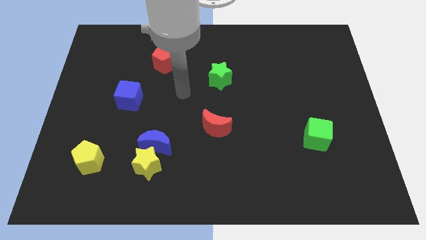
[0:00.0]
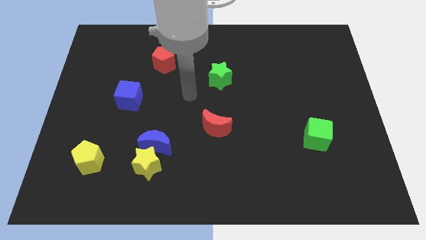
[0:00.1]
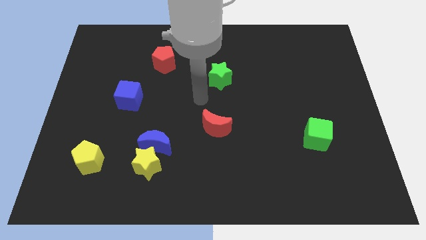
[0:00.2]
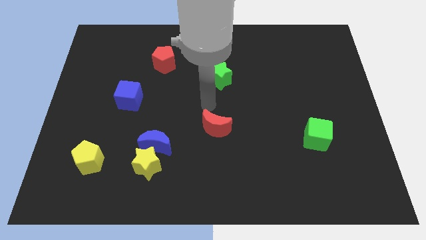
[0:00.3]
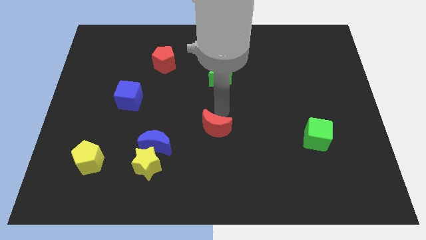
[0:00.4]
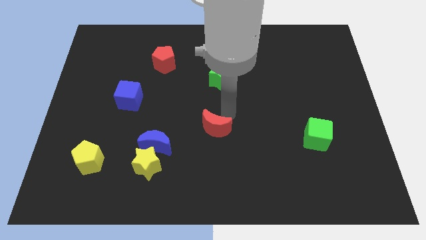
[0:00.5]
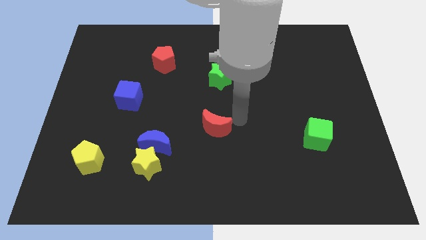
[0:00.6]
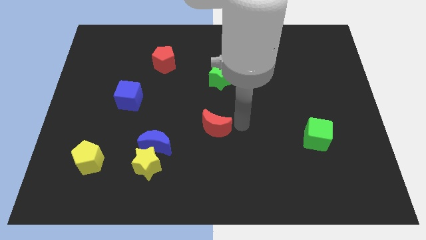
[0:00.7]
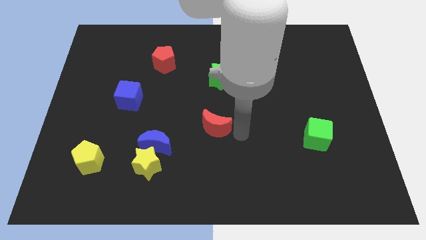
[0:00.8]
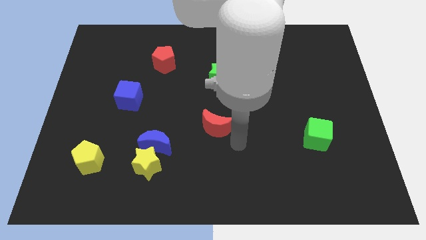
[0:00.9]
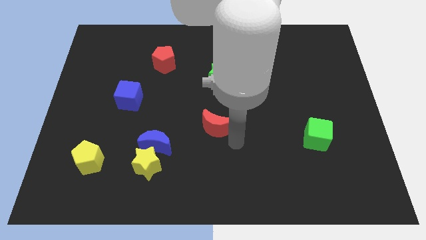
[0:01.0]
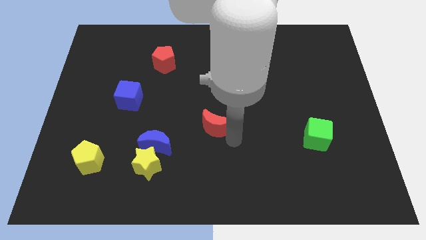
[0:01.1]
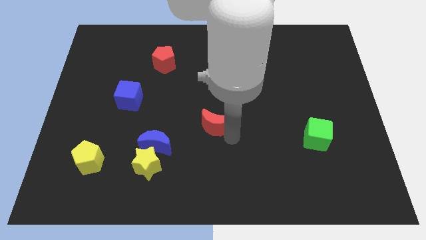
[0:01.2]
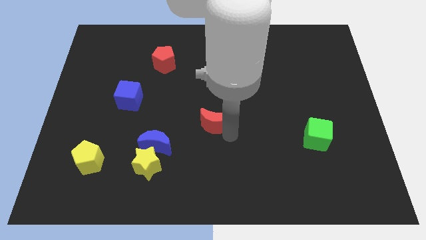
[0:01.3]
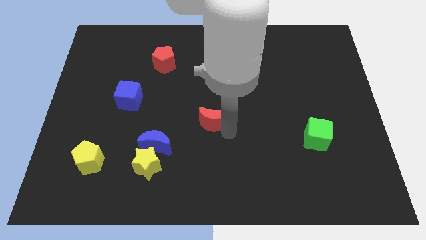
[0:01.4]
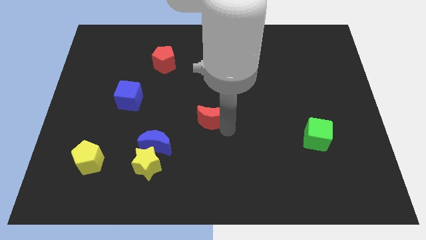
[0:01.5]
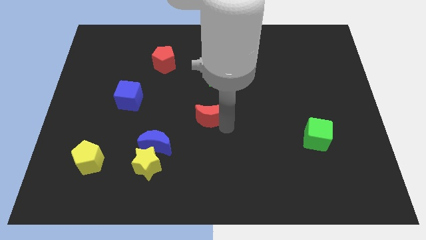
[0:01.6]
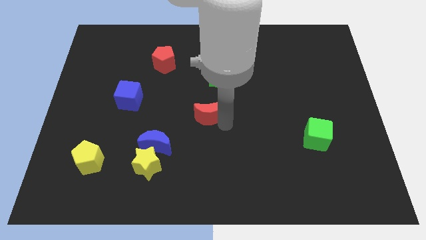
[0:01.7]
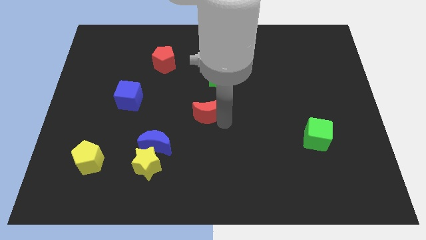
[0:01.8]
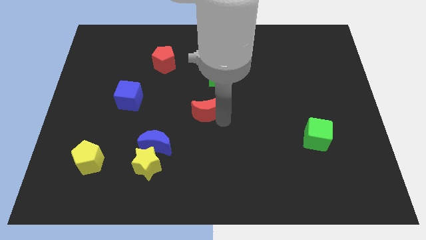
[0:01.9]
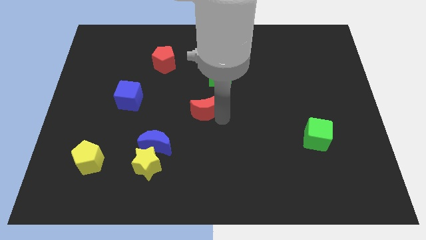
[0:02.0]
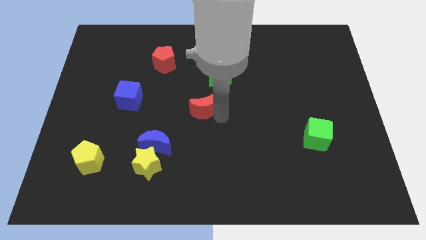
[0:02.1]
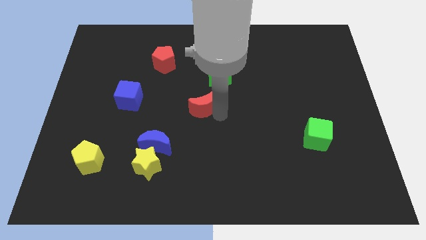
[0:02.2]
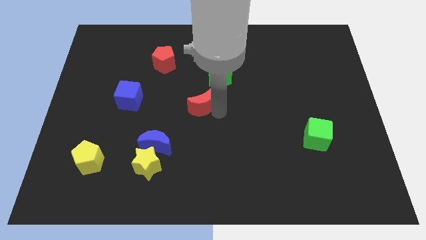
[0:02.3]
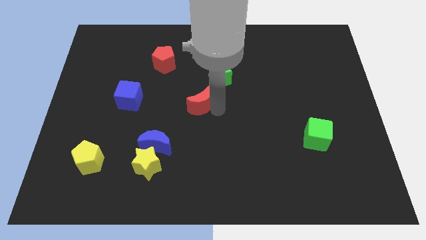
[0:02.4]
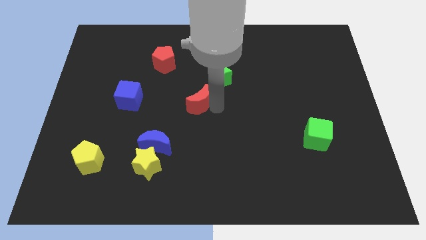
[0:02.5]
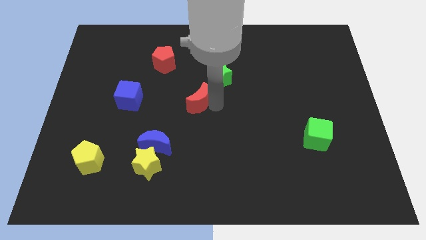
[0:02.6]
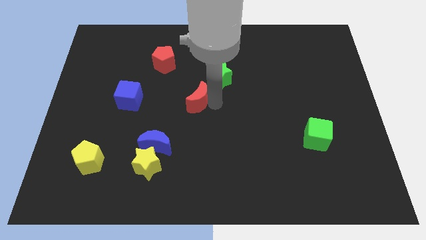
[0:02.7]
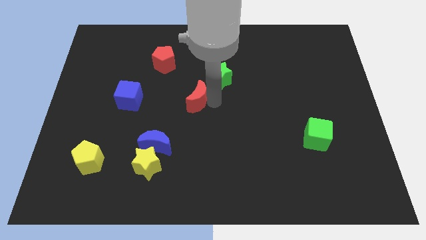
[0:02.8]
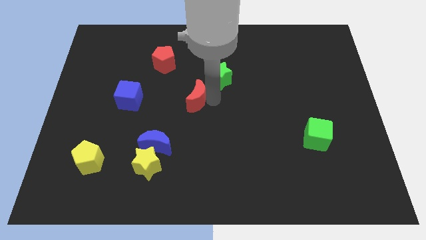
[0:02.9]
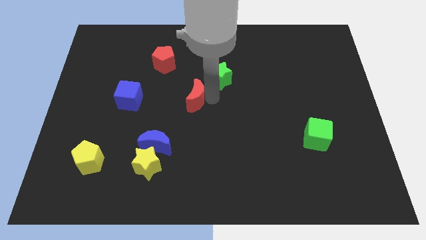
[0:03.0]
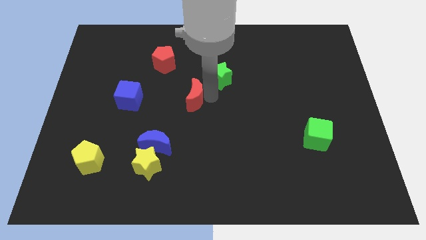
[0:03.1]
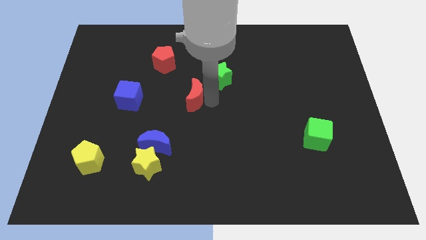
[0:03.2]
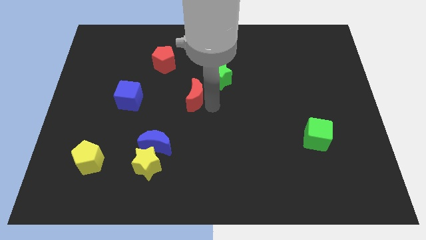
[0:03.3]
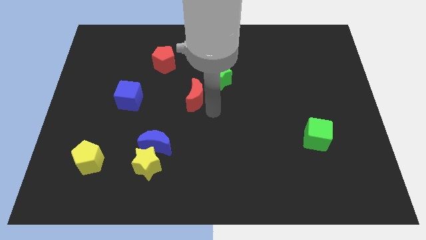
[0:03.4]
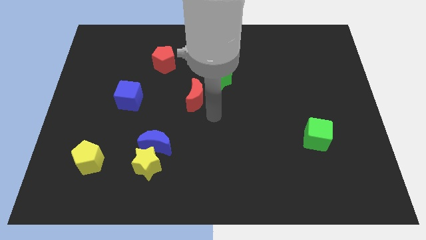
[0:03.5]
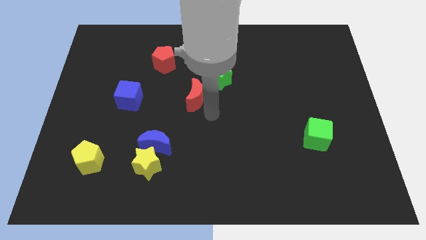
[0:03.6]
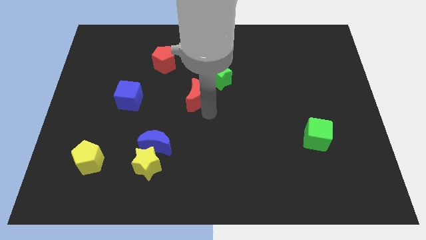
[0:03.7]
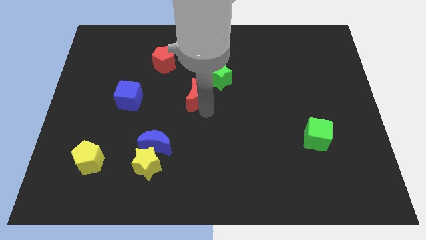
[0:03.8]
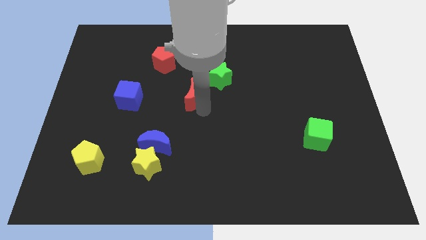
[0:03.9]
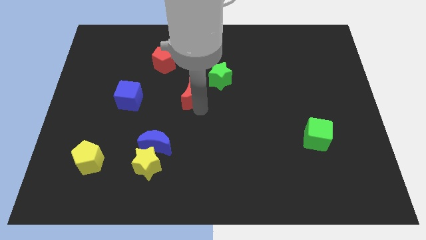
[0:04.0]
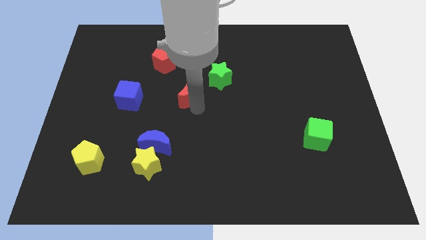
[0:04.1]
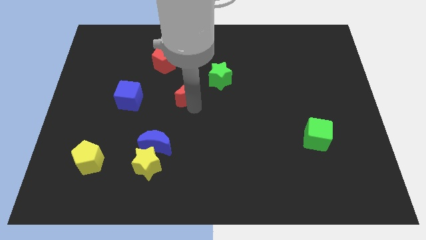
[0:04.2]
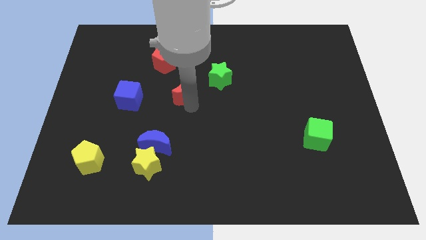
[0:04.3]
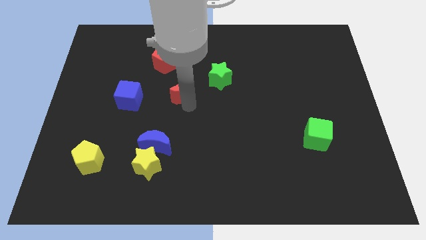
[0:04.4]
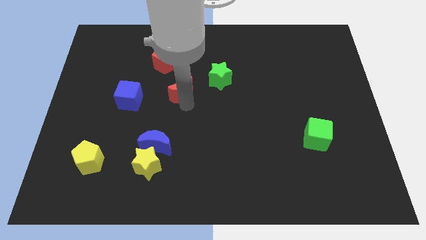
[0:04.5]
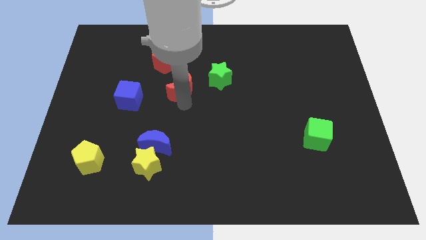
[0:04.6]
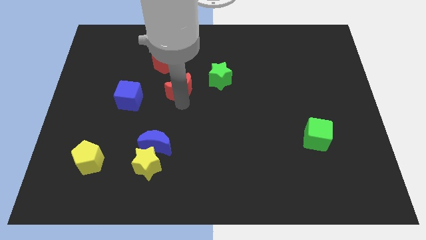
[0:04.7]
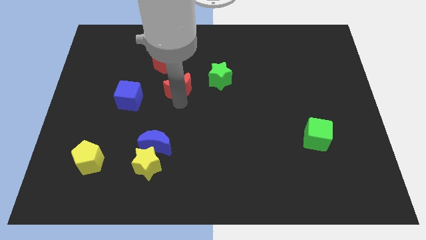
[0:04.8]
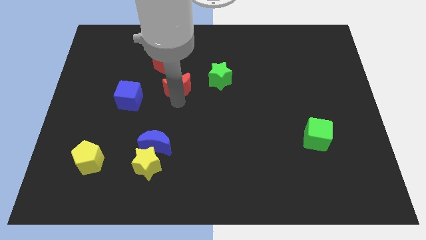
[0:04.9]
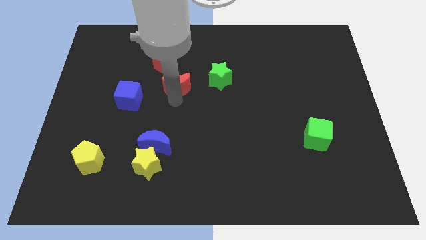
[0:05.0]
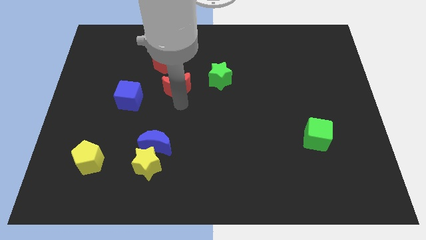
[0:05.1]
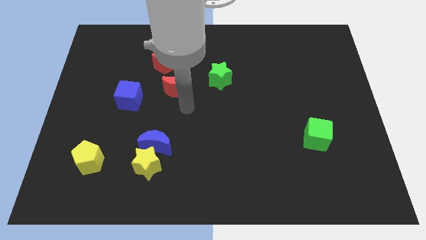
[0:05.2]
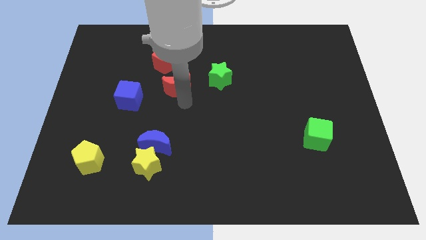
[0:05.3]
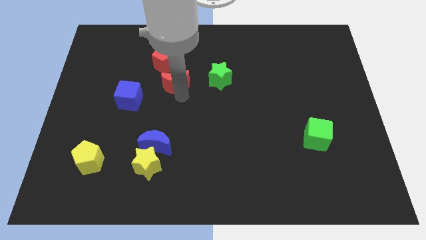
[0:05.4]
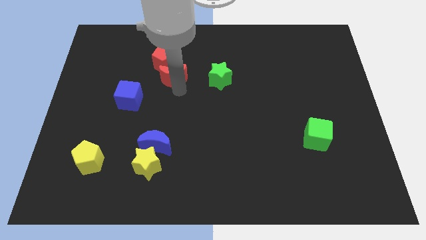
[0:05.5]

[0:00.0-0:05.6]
slide the red moon close to the red pentagon

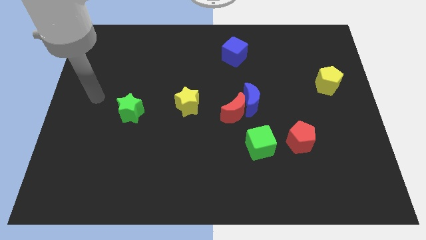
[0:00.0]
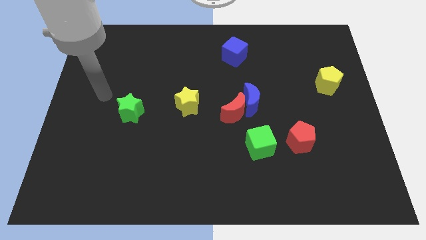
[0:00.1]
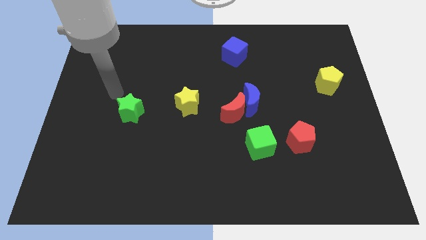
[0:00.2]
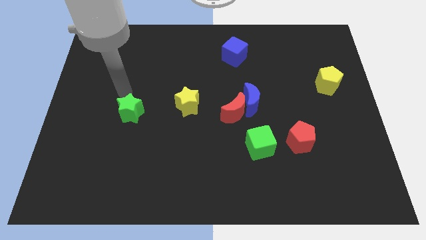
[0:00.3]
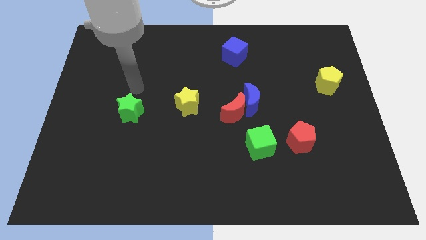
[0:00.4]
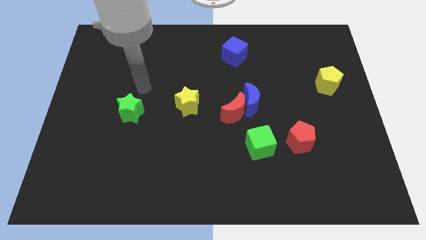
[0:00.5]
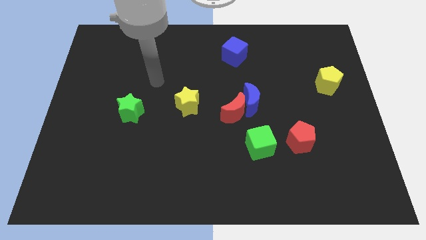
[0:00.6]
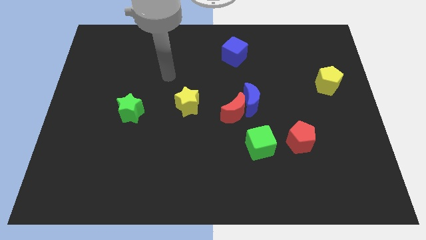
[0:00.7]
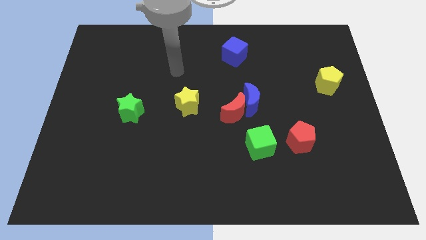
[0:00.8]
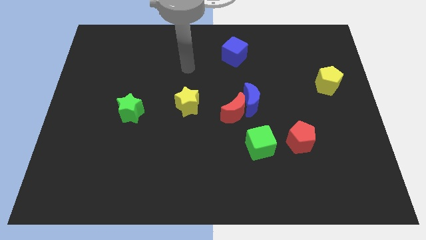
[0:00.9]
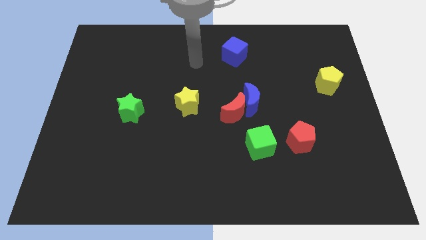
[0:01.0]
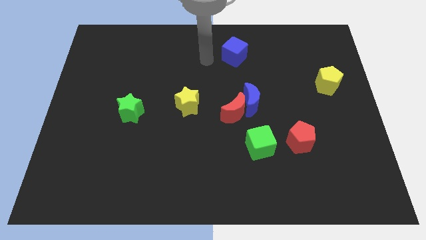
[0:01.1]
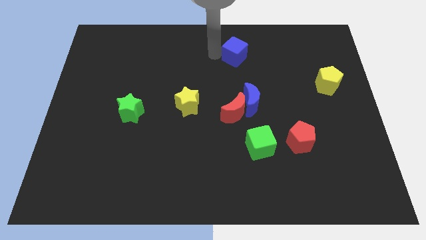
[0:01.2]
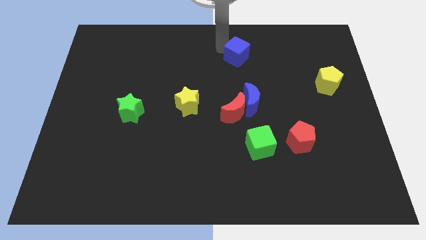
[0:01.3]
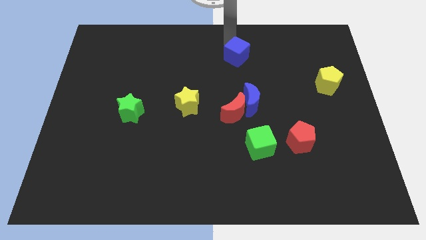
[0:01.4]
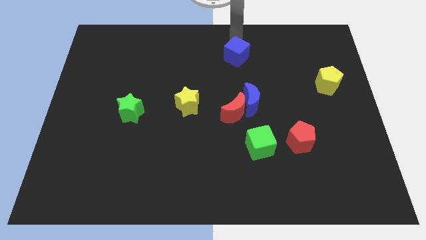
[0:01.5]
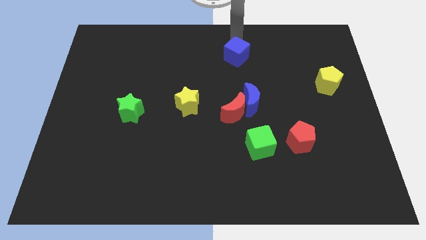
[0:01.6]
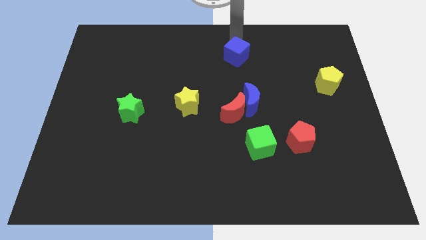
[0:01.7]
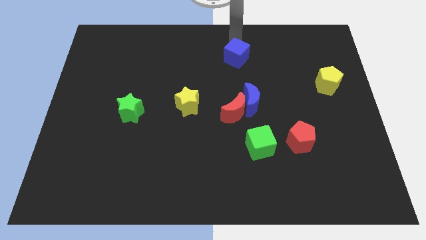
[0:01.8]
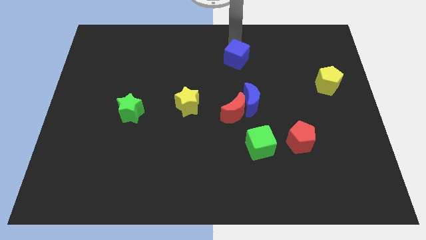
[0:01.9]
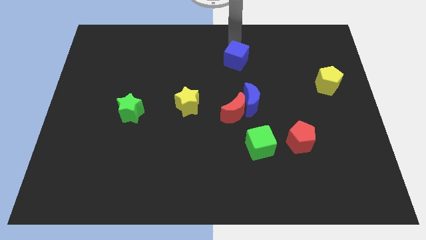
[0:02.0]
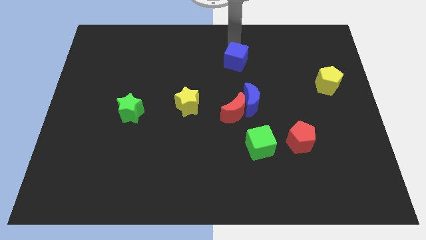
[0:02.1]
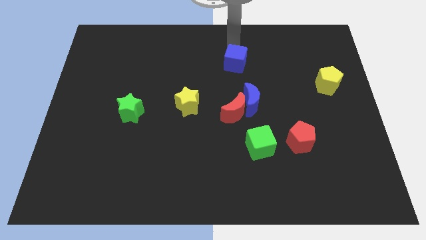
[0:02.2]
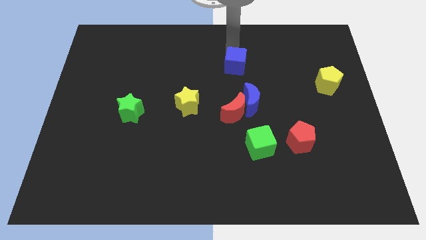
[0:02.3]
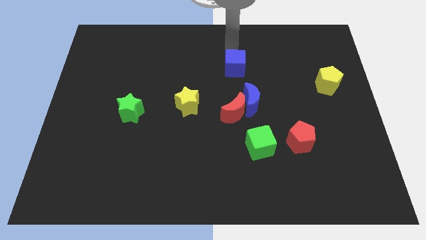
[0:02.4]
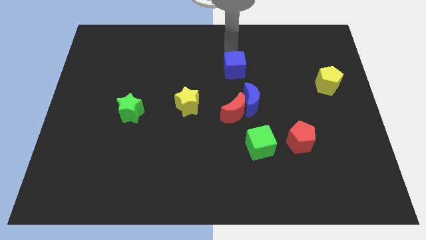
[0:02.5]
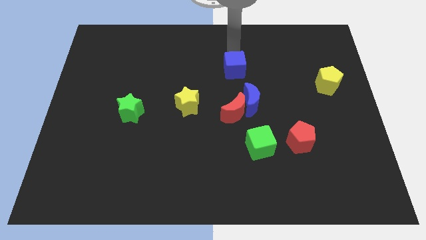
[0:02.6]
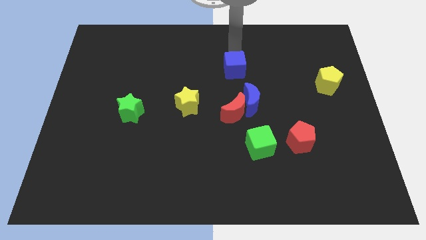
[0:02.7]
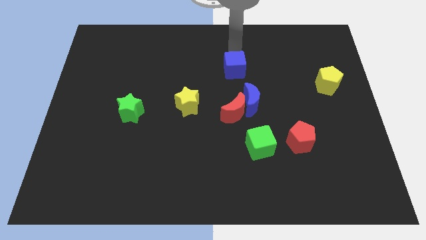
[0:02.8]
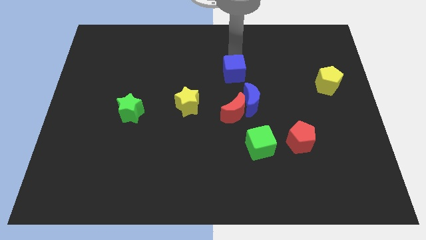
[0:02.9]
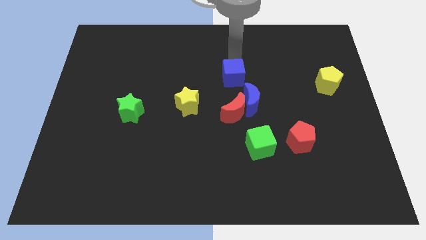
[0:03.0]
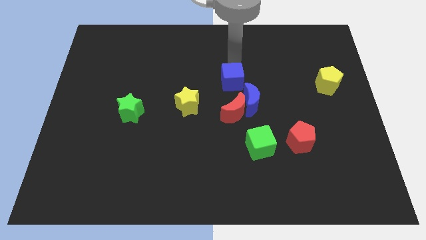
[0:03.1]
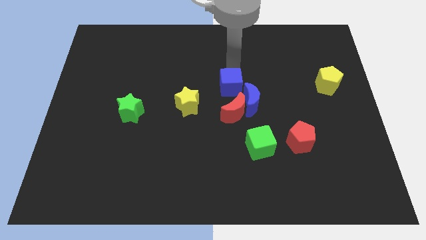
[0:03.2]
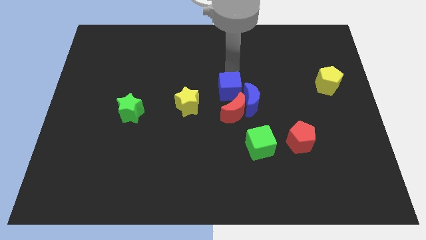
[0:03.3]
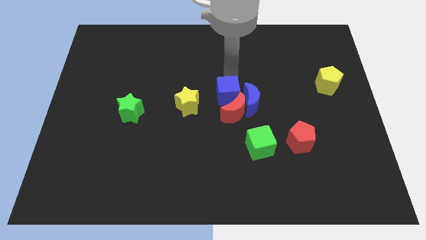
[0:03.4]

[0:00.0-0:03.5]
put the blue cube to the red moon
